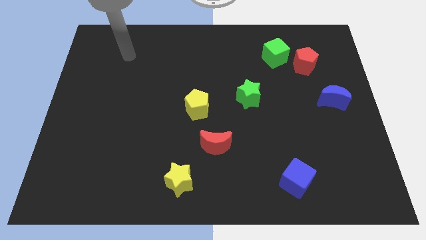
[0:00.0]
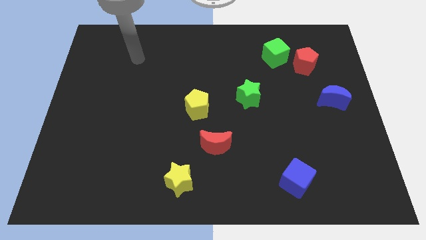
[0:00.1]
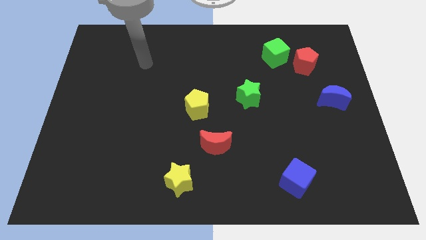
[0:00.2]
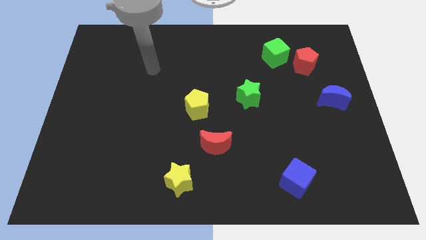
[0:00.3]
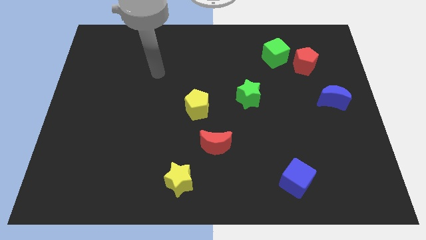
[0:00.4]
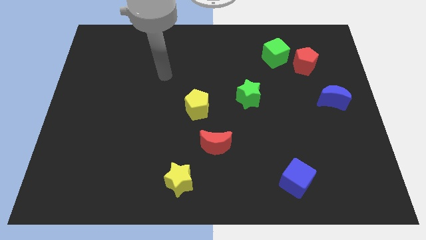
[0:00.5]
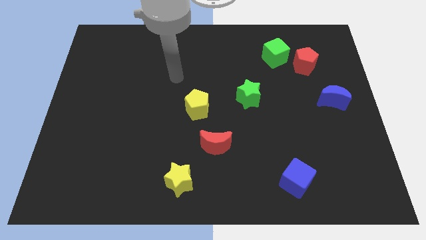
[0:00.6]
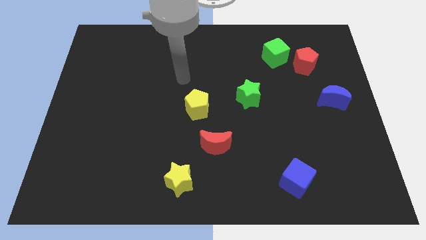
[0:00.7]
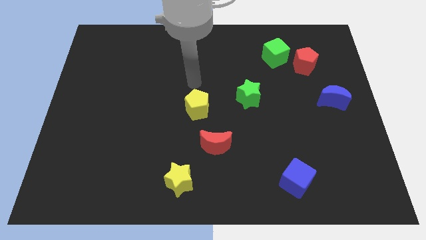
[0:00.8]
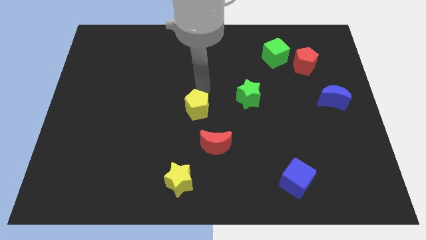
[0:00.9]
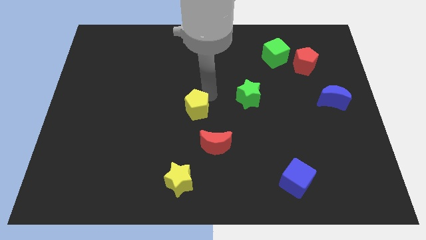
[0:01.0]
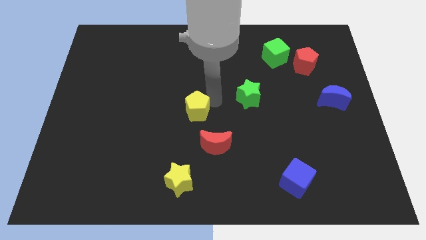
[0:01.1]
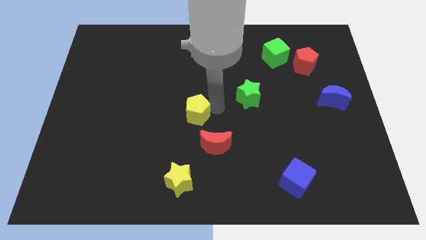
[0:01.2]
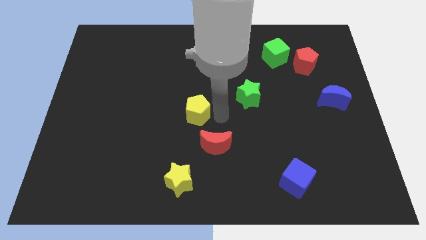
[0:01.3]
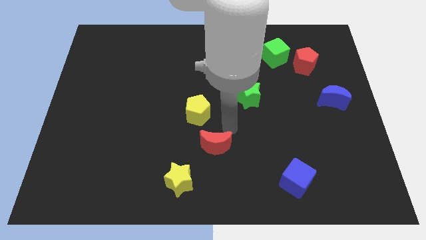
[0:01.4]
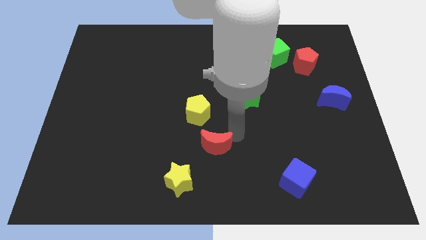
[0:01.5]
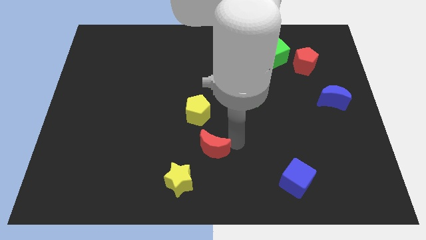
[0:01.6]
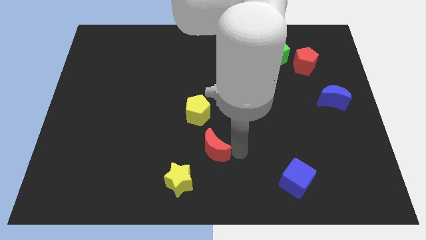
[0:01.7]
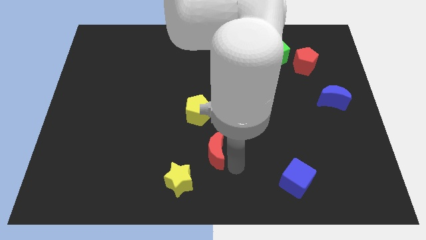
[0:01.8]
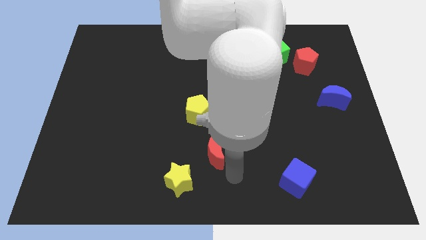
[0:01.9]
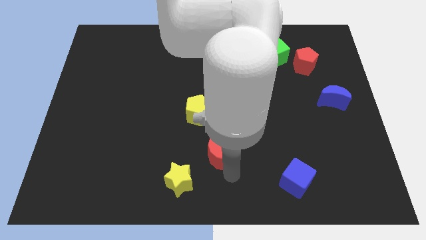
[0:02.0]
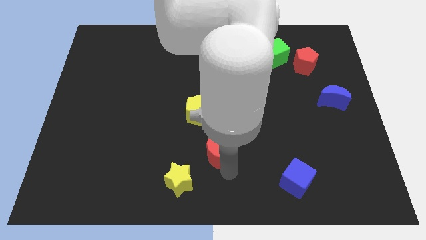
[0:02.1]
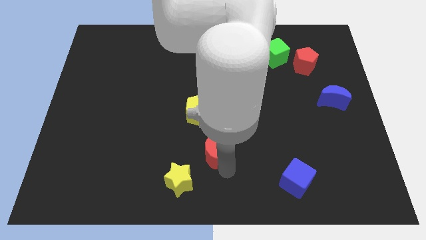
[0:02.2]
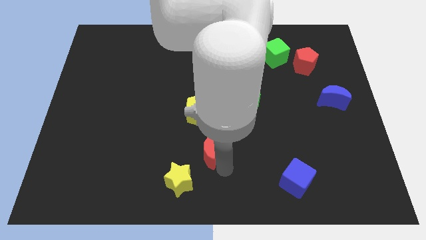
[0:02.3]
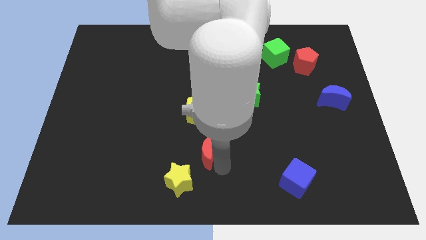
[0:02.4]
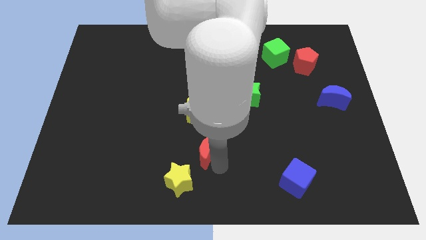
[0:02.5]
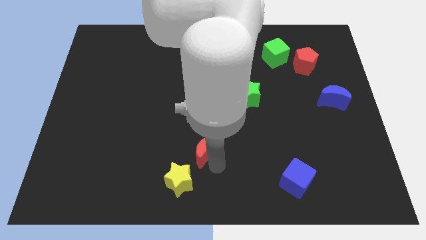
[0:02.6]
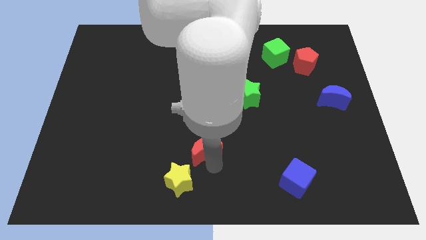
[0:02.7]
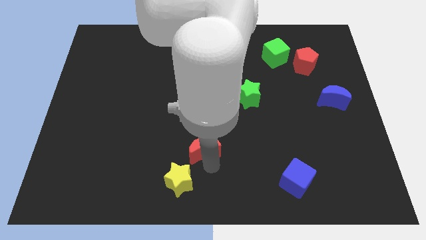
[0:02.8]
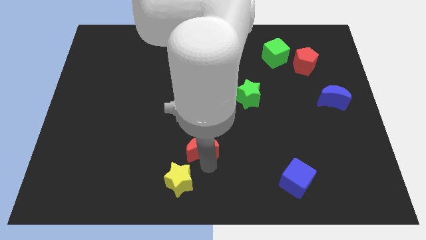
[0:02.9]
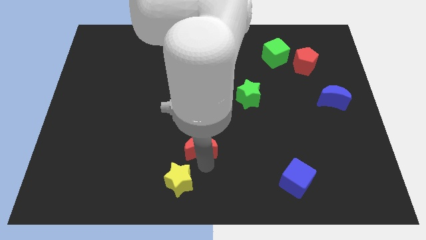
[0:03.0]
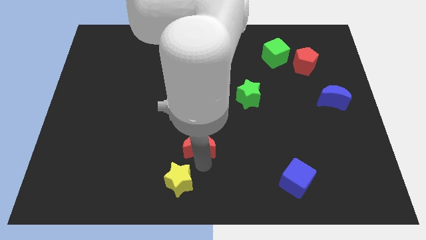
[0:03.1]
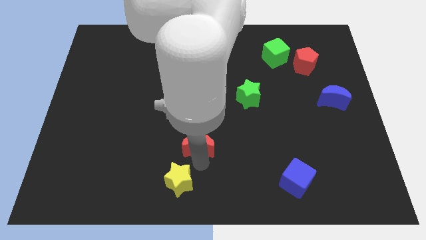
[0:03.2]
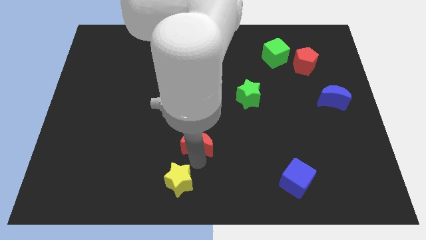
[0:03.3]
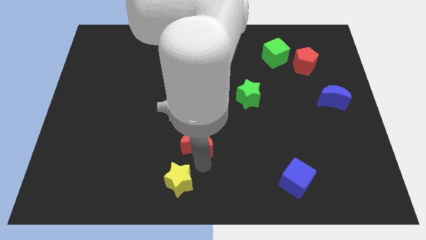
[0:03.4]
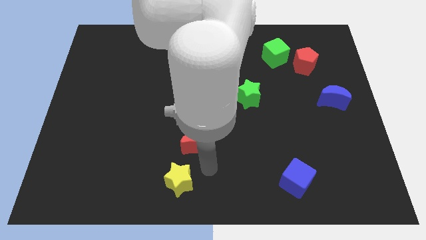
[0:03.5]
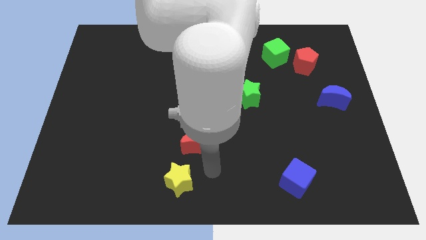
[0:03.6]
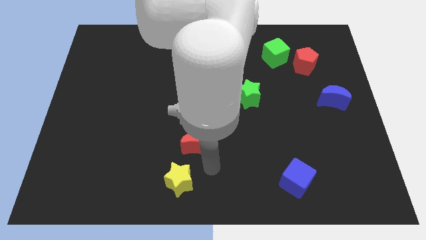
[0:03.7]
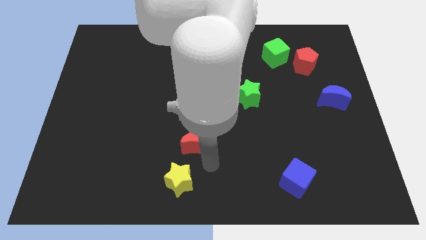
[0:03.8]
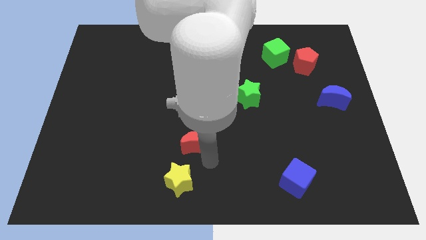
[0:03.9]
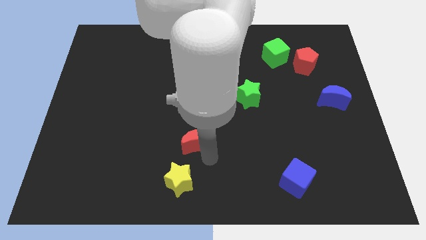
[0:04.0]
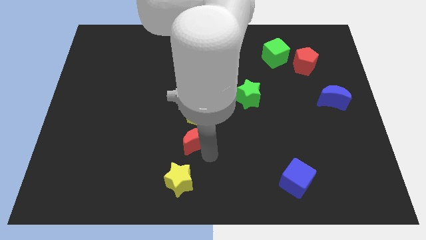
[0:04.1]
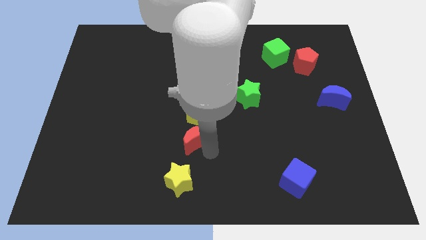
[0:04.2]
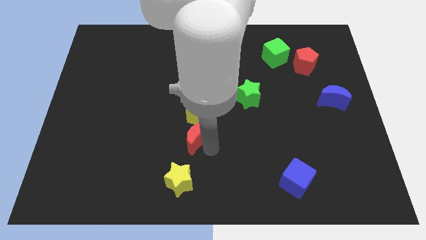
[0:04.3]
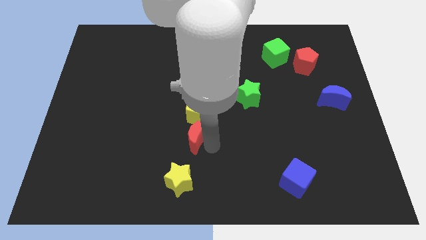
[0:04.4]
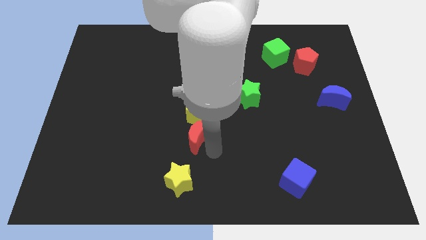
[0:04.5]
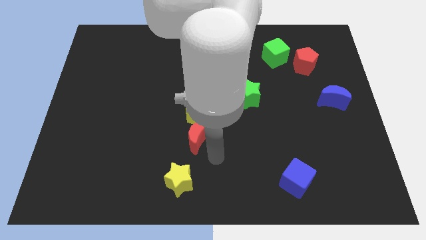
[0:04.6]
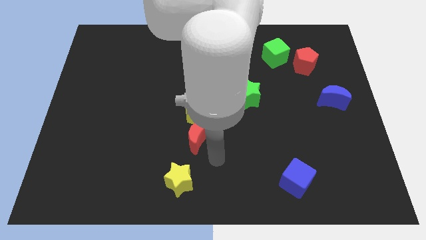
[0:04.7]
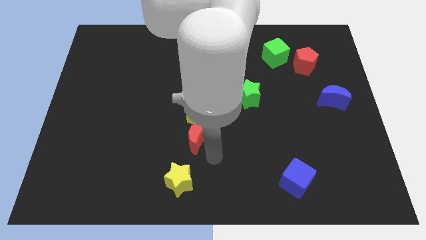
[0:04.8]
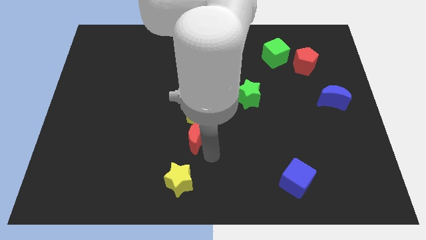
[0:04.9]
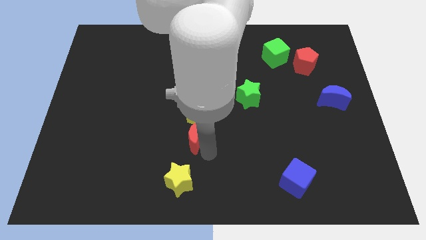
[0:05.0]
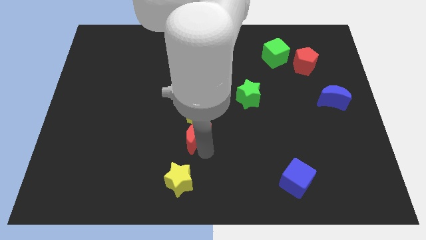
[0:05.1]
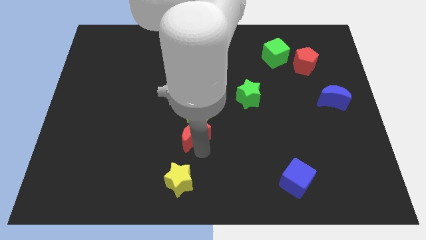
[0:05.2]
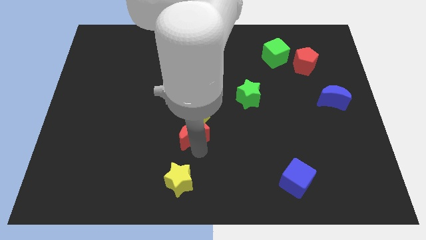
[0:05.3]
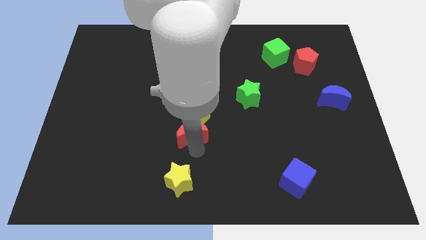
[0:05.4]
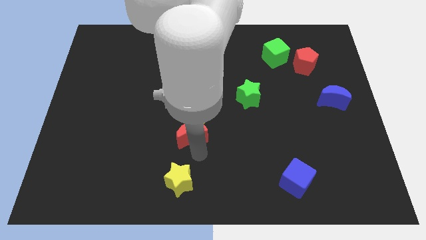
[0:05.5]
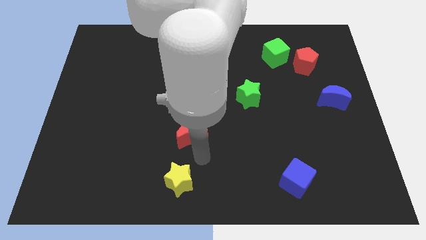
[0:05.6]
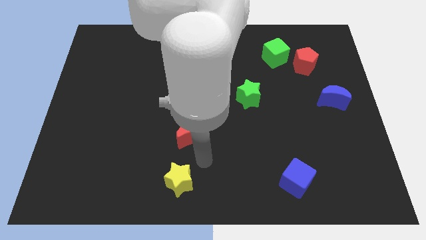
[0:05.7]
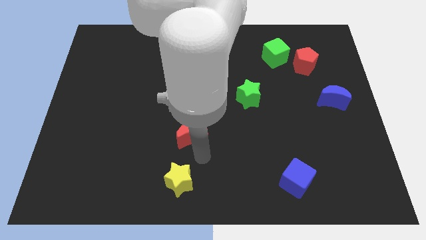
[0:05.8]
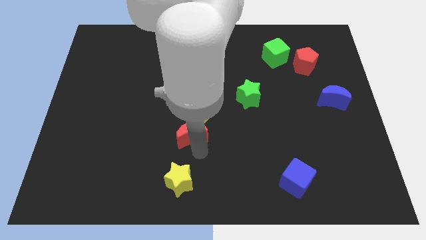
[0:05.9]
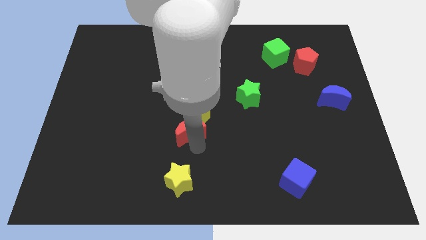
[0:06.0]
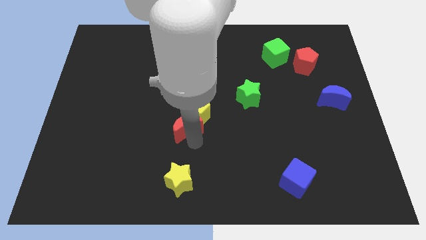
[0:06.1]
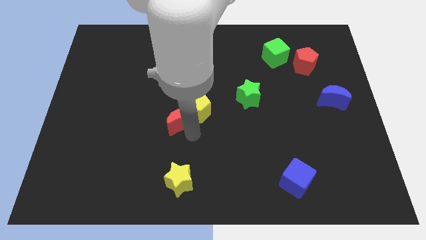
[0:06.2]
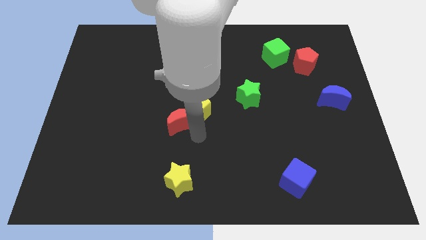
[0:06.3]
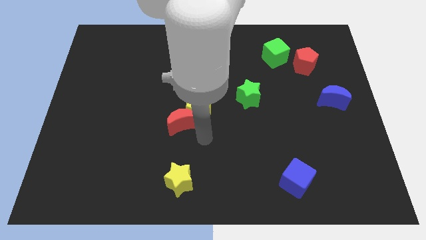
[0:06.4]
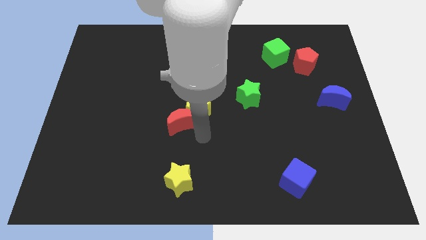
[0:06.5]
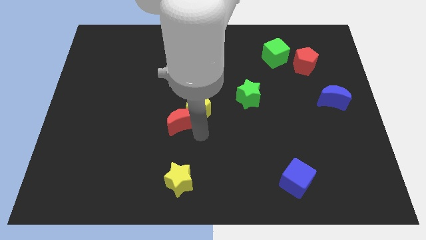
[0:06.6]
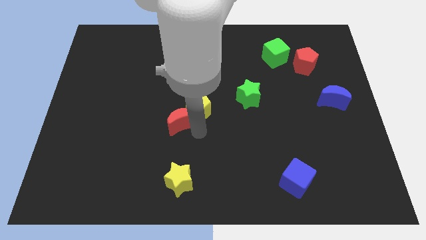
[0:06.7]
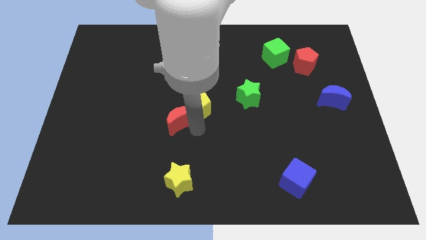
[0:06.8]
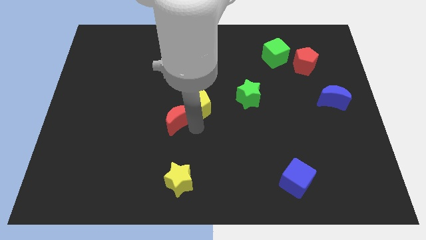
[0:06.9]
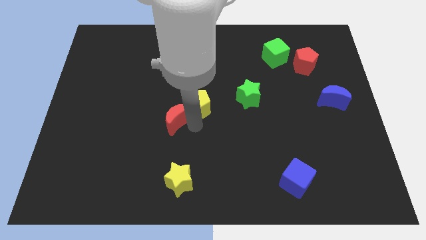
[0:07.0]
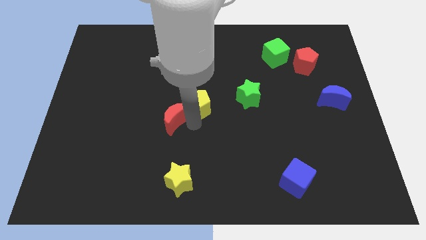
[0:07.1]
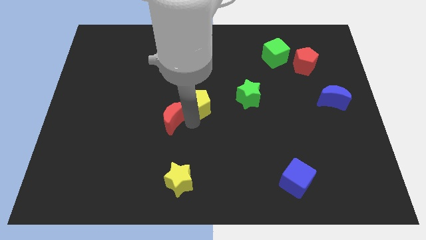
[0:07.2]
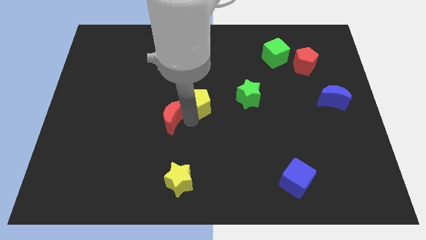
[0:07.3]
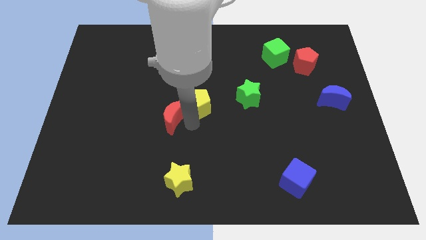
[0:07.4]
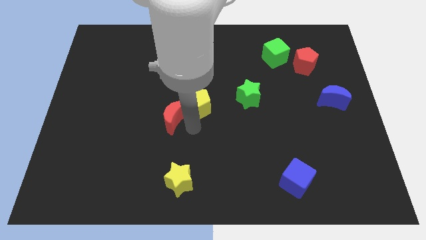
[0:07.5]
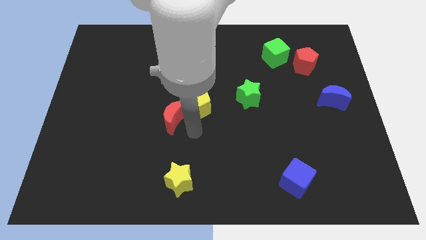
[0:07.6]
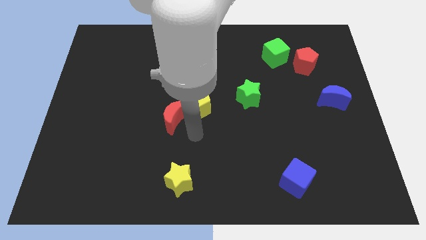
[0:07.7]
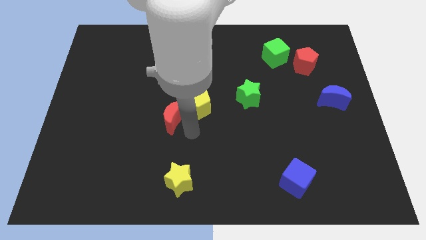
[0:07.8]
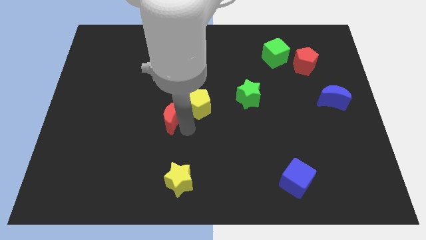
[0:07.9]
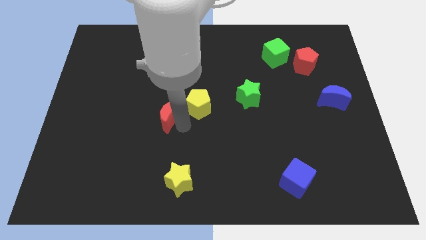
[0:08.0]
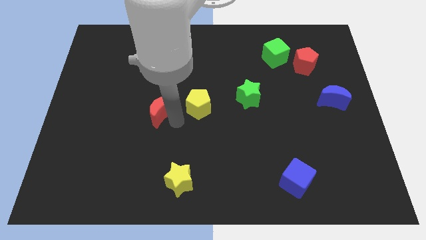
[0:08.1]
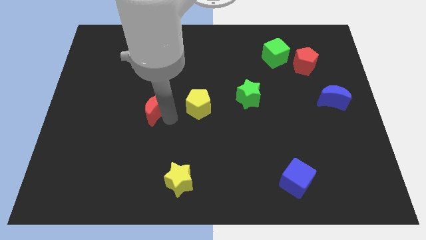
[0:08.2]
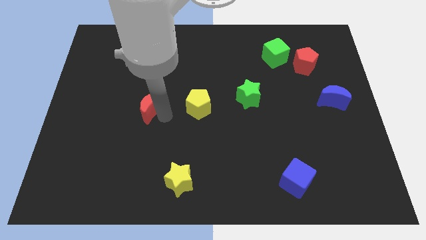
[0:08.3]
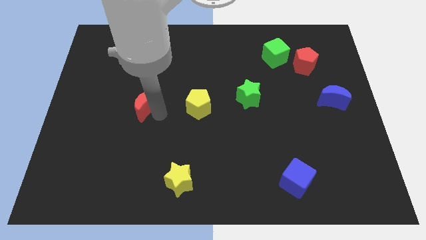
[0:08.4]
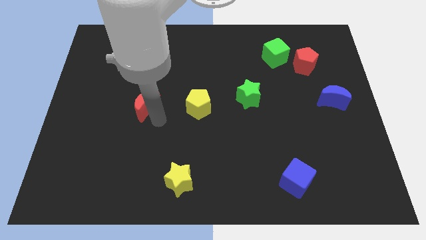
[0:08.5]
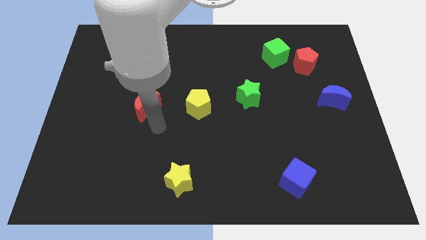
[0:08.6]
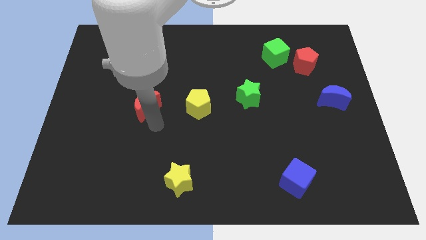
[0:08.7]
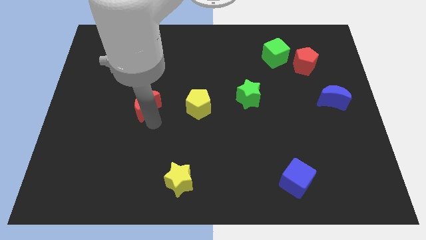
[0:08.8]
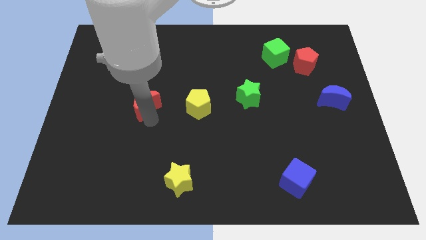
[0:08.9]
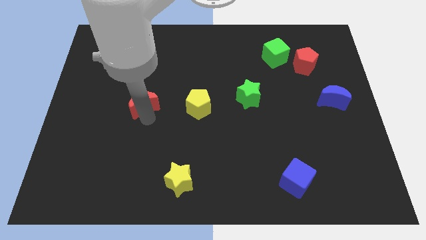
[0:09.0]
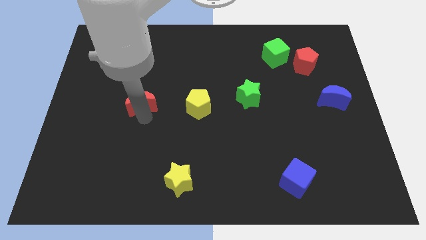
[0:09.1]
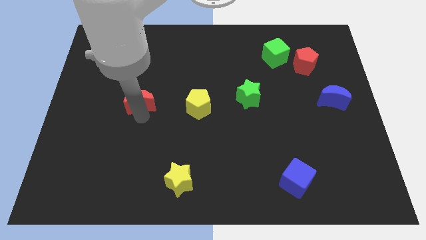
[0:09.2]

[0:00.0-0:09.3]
slide the red moon up and left diagonally
